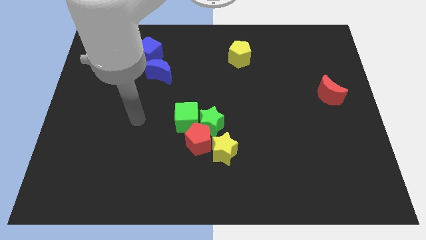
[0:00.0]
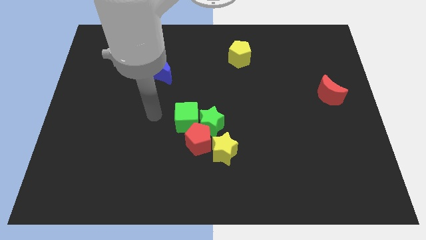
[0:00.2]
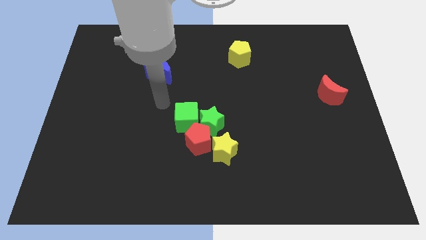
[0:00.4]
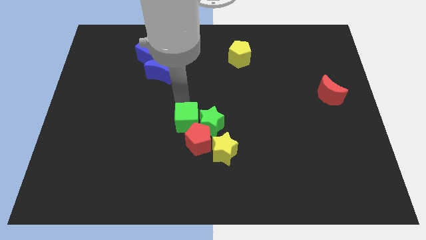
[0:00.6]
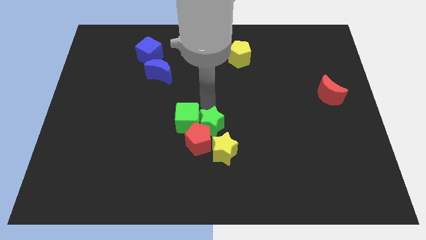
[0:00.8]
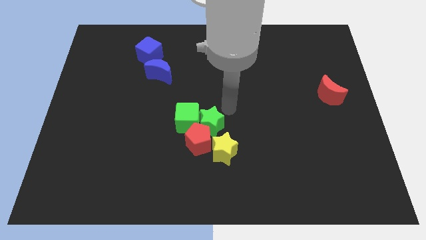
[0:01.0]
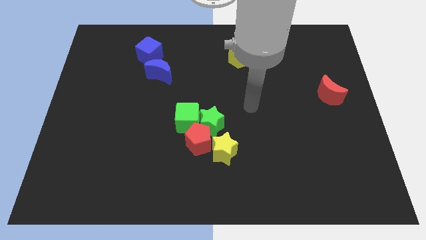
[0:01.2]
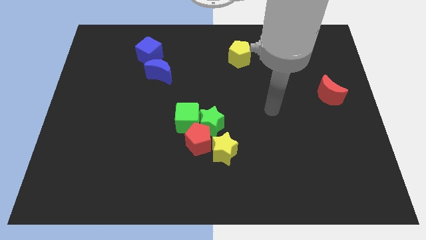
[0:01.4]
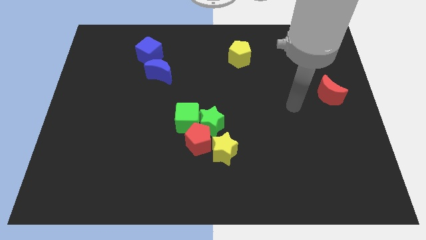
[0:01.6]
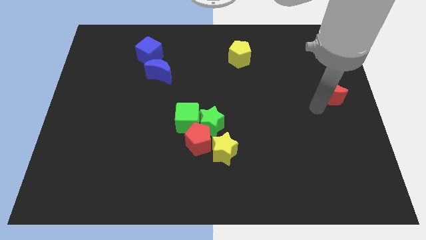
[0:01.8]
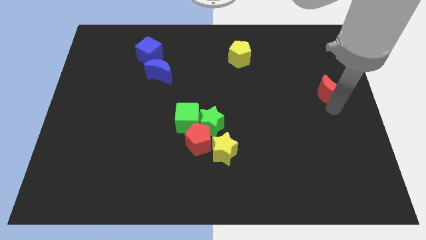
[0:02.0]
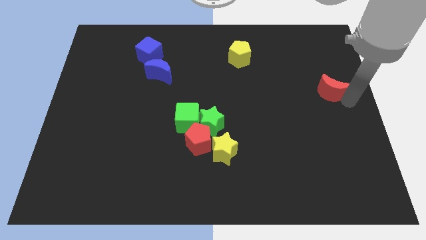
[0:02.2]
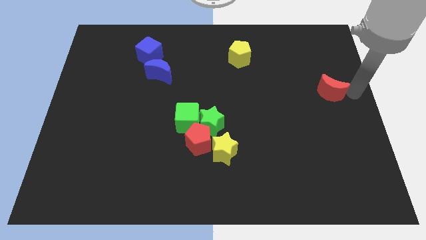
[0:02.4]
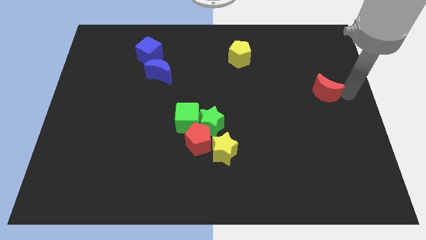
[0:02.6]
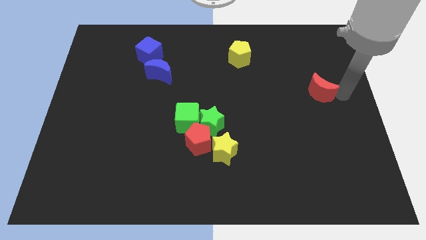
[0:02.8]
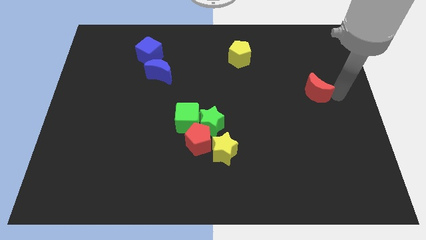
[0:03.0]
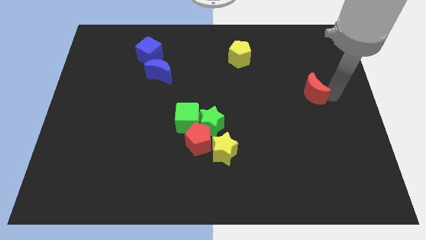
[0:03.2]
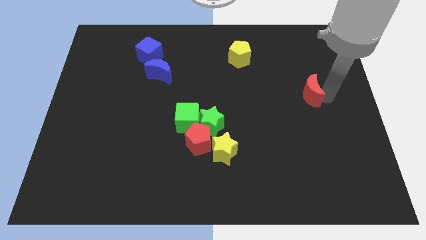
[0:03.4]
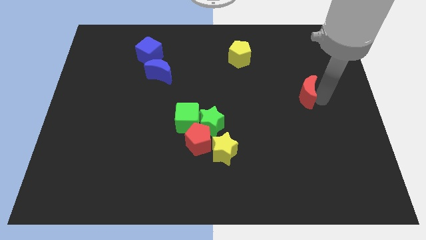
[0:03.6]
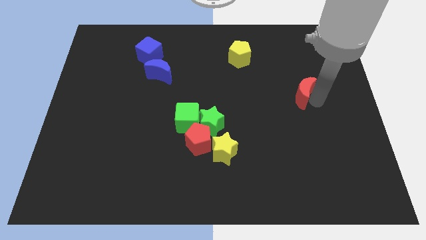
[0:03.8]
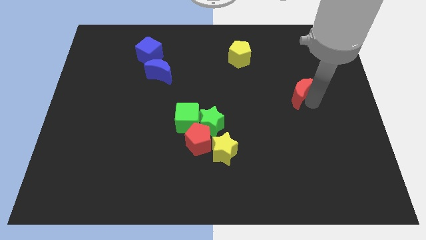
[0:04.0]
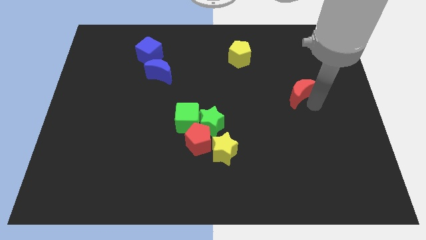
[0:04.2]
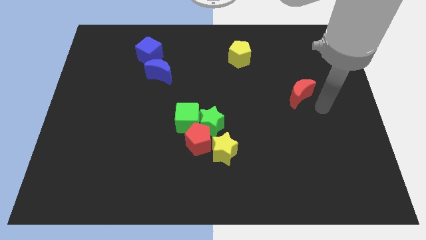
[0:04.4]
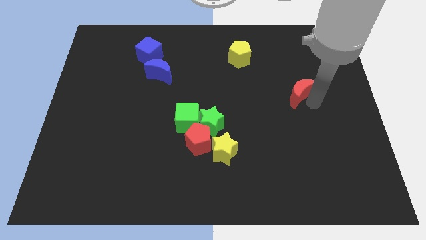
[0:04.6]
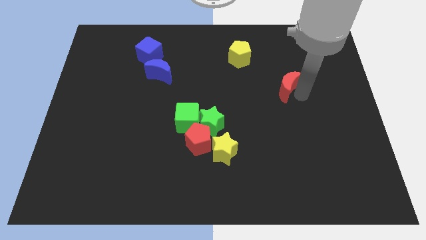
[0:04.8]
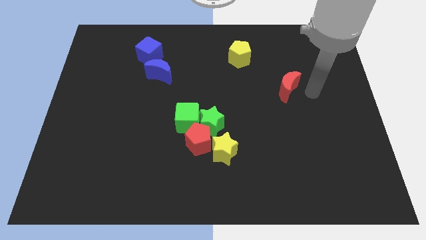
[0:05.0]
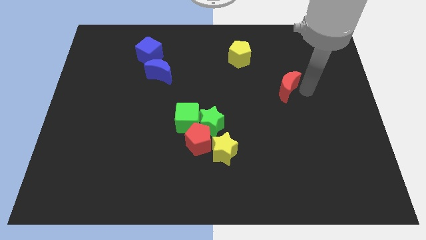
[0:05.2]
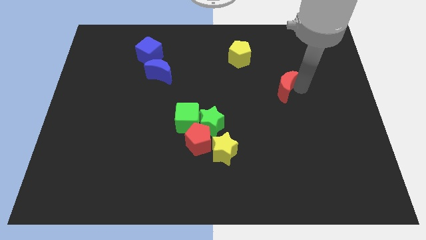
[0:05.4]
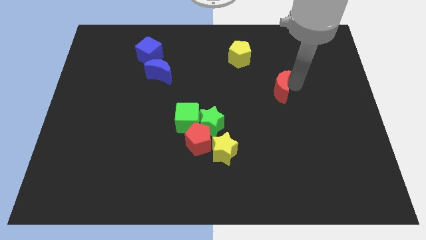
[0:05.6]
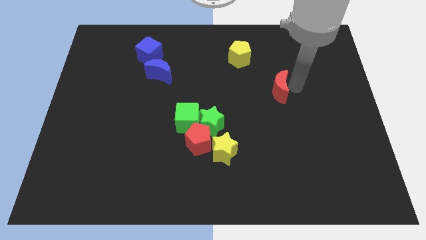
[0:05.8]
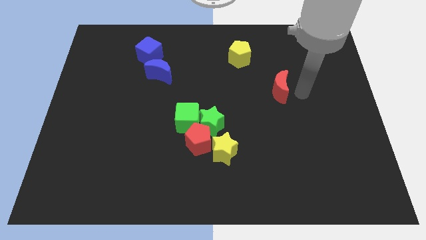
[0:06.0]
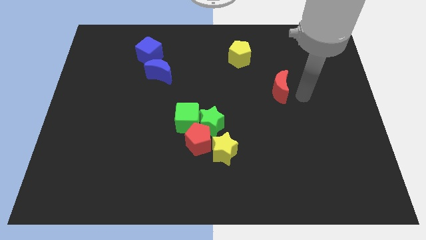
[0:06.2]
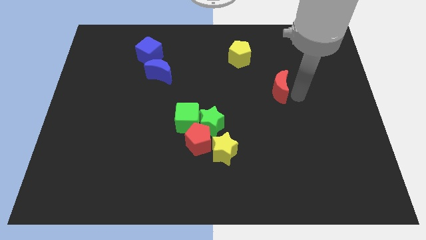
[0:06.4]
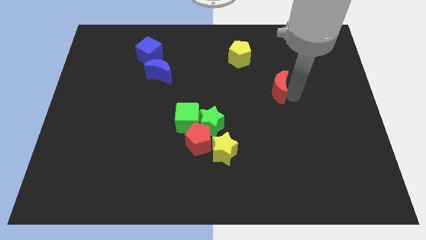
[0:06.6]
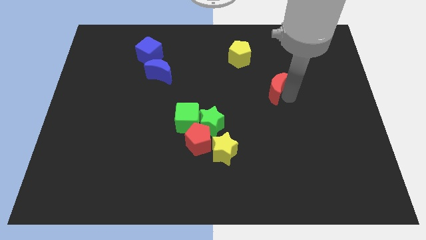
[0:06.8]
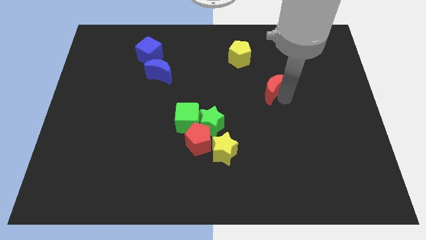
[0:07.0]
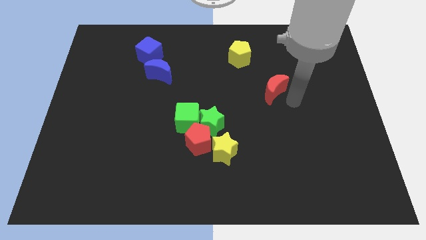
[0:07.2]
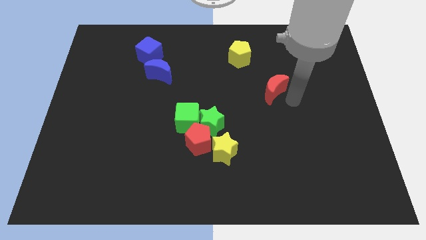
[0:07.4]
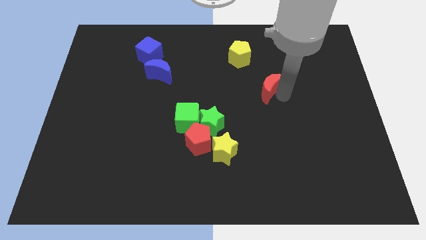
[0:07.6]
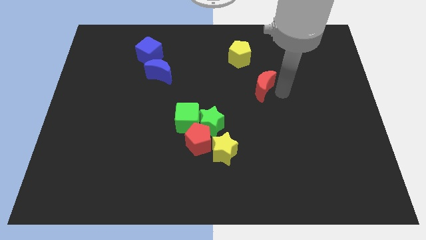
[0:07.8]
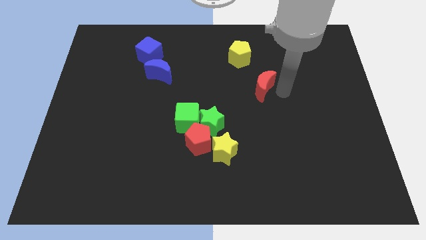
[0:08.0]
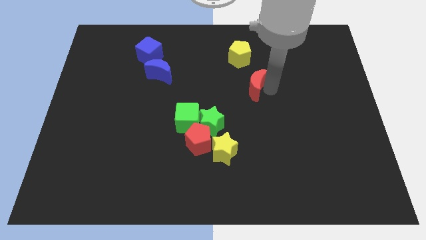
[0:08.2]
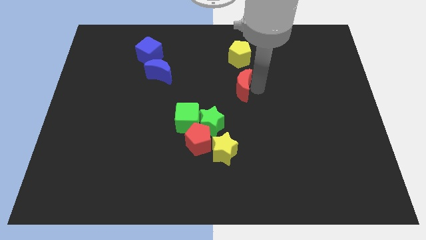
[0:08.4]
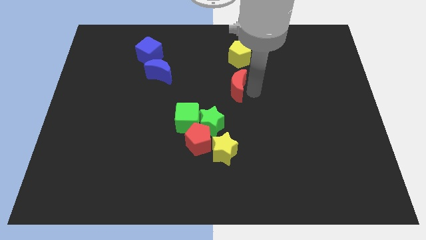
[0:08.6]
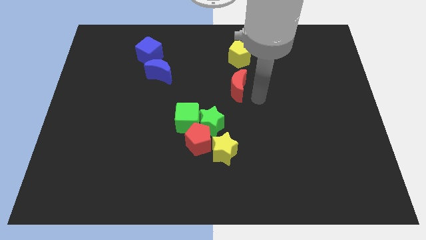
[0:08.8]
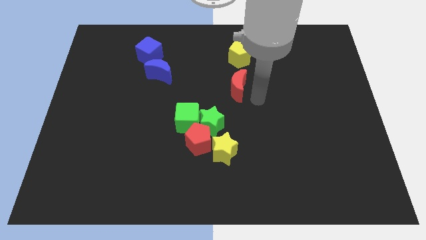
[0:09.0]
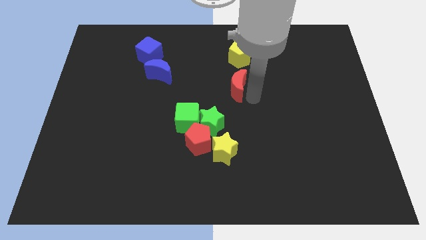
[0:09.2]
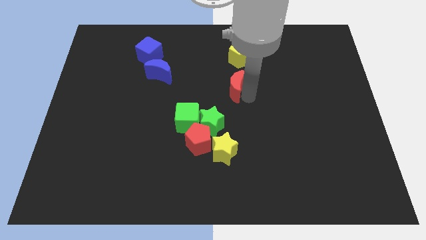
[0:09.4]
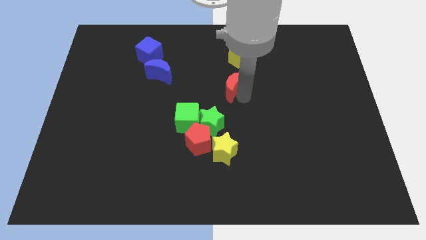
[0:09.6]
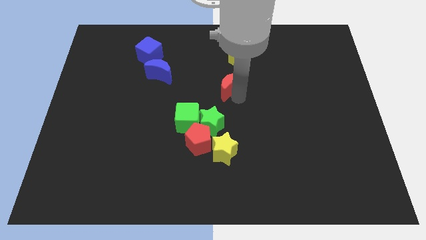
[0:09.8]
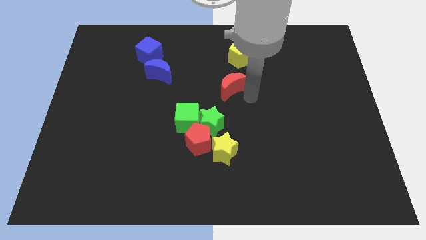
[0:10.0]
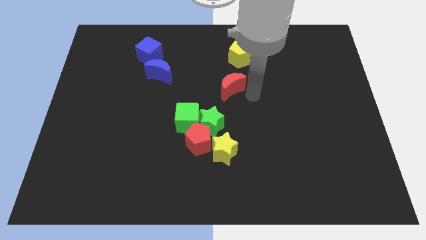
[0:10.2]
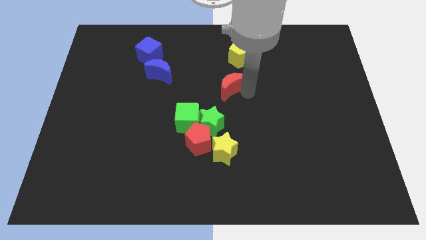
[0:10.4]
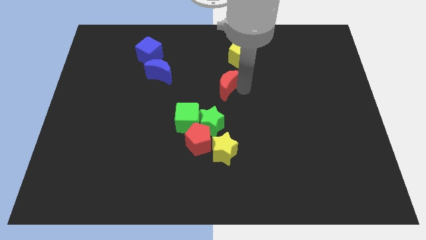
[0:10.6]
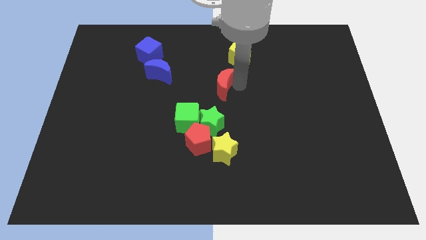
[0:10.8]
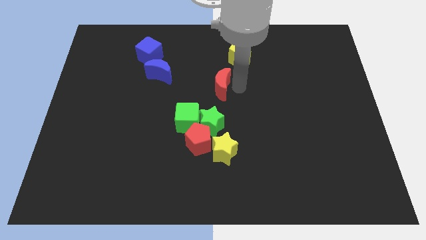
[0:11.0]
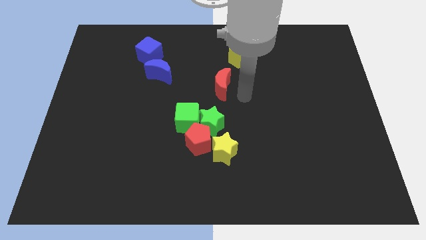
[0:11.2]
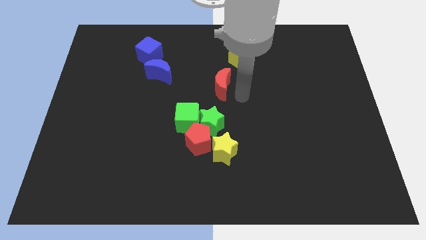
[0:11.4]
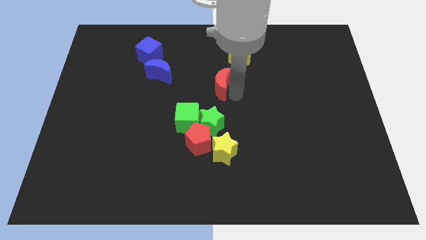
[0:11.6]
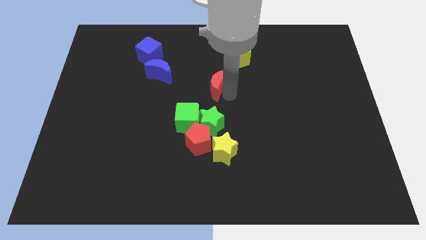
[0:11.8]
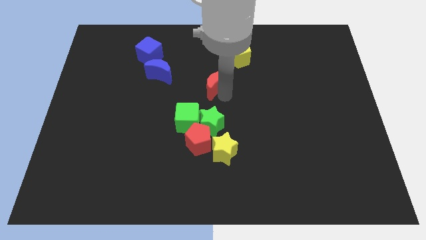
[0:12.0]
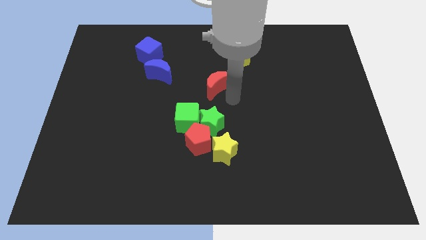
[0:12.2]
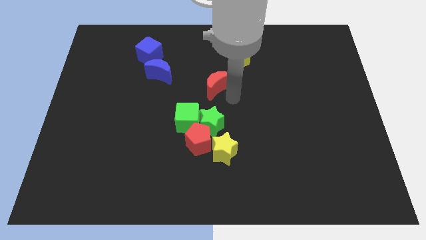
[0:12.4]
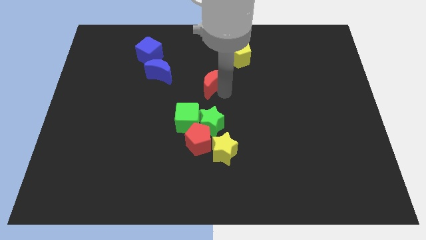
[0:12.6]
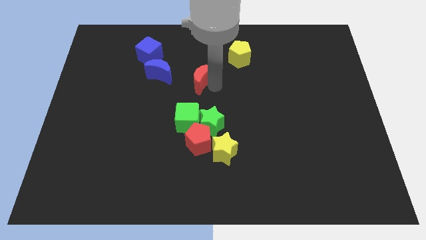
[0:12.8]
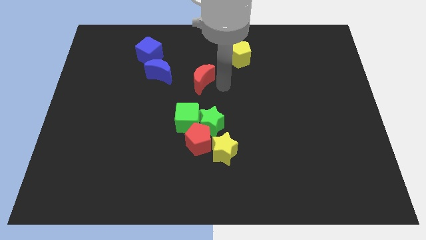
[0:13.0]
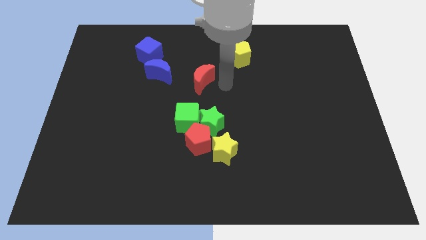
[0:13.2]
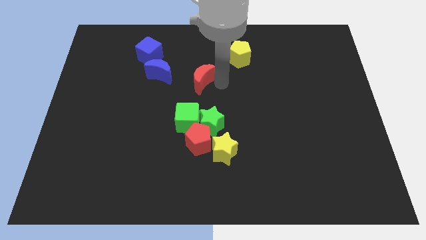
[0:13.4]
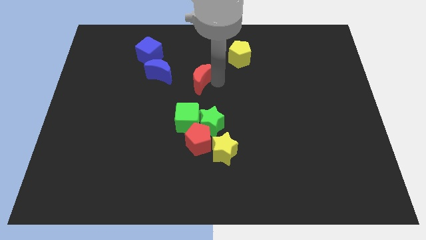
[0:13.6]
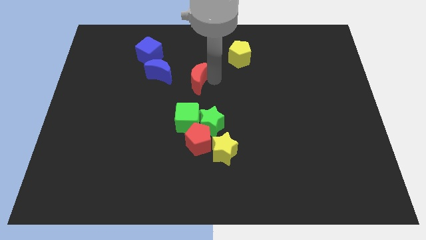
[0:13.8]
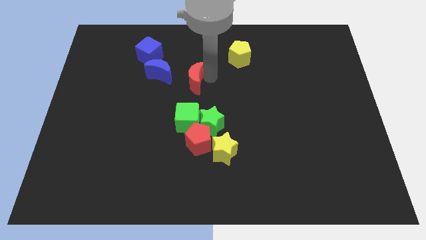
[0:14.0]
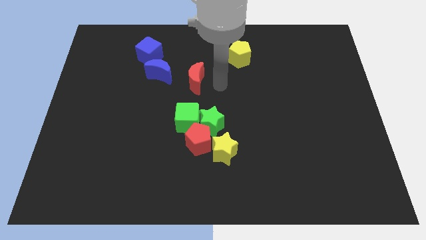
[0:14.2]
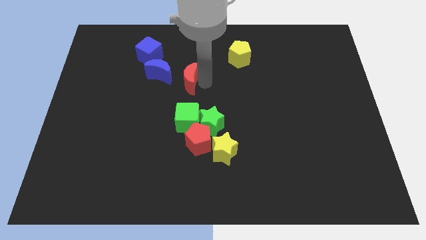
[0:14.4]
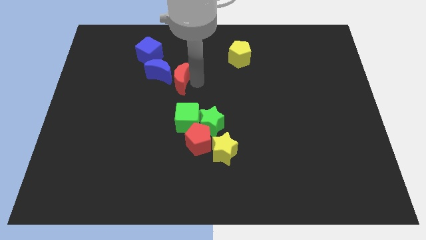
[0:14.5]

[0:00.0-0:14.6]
slide the red moon next to the blue moon
